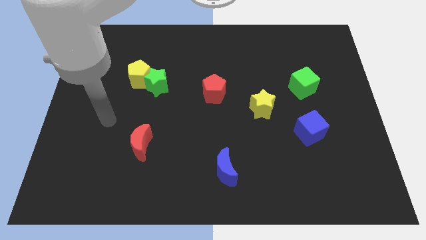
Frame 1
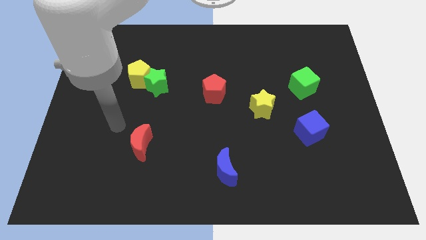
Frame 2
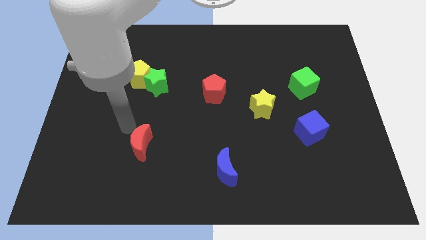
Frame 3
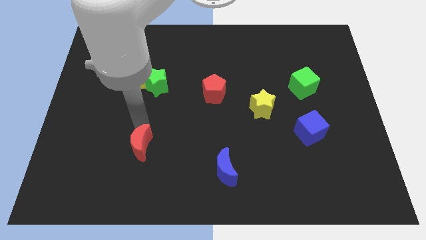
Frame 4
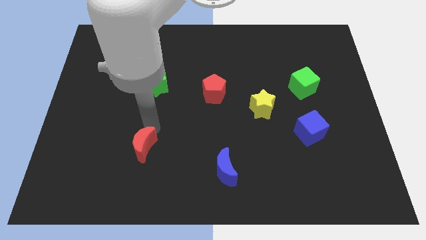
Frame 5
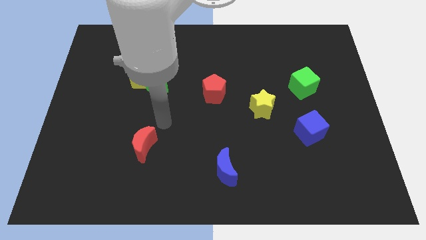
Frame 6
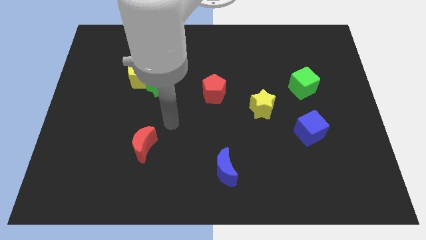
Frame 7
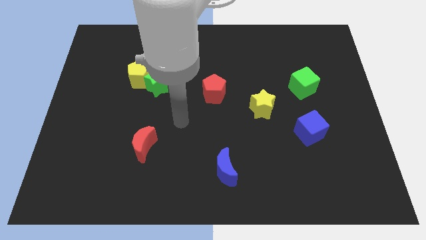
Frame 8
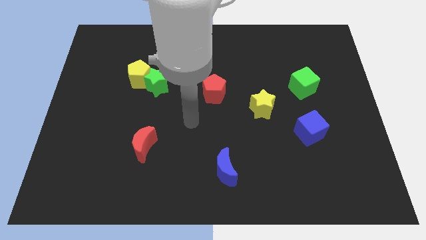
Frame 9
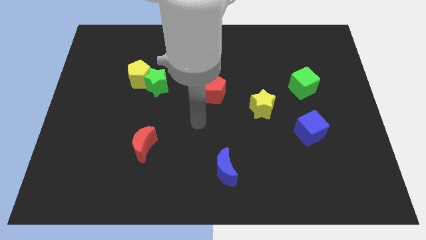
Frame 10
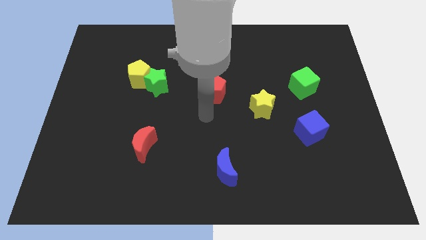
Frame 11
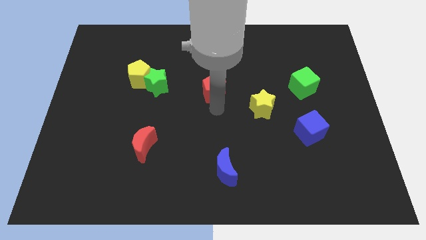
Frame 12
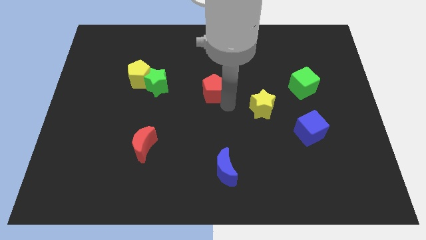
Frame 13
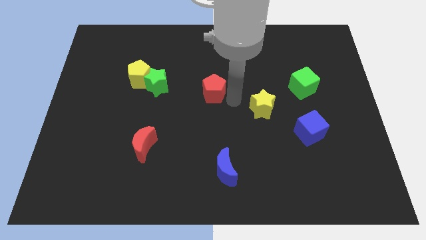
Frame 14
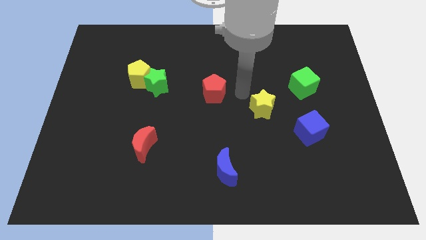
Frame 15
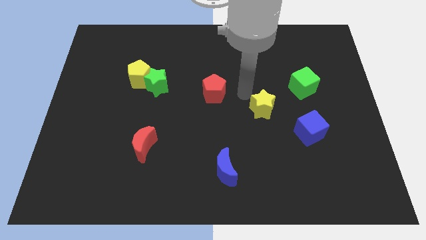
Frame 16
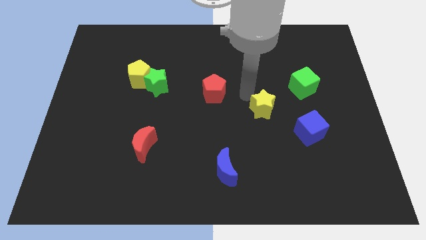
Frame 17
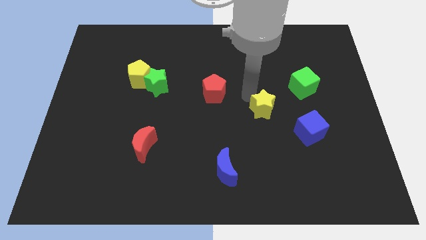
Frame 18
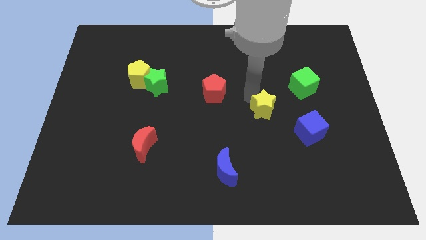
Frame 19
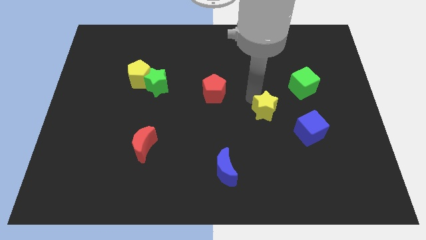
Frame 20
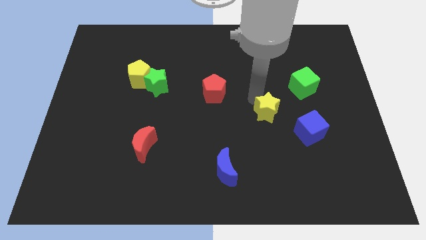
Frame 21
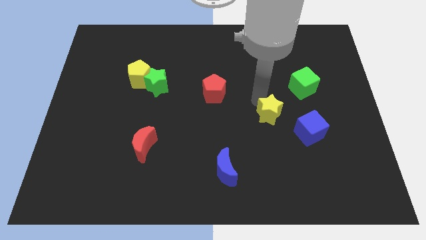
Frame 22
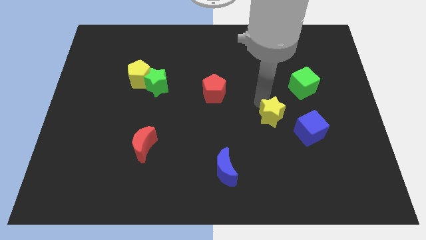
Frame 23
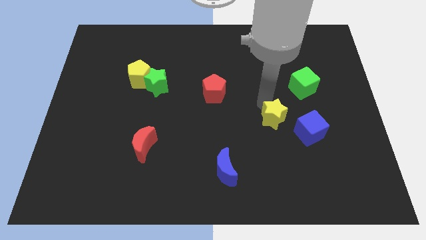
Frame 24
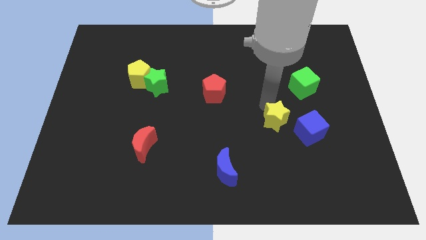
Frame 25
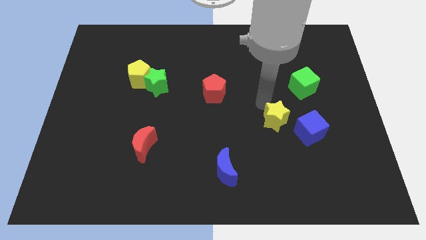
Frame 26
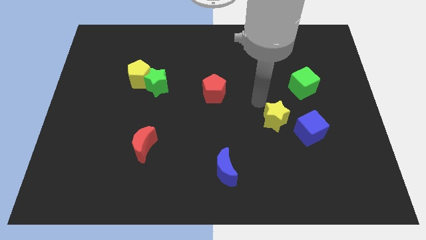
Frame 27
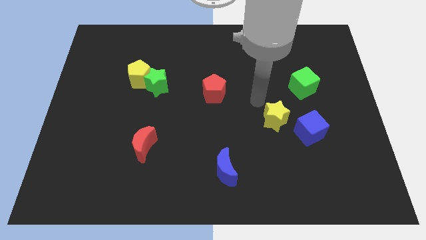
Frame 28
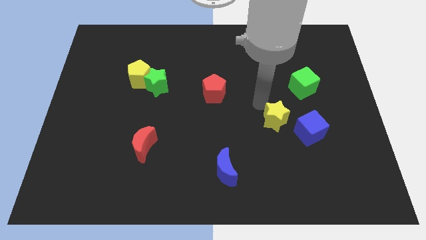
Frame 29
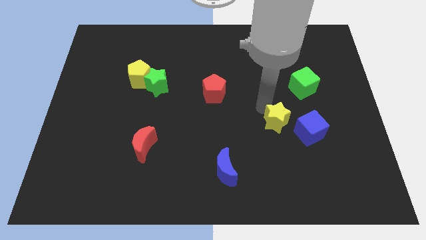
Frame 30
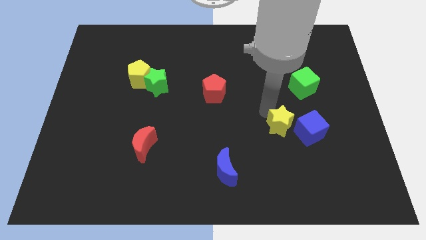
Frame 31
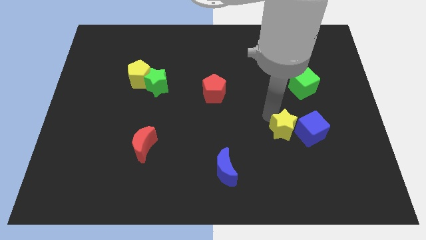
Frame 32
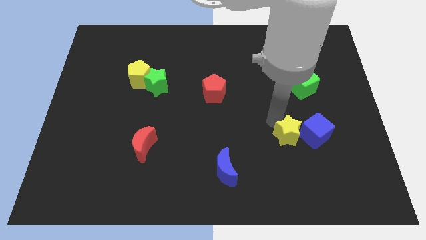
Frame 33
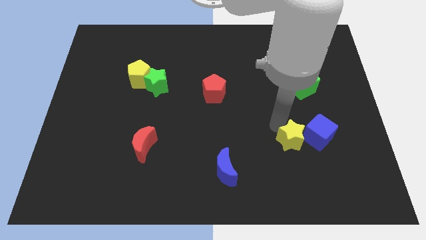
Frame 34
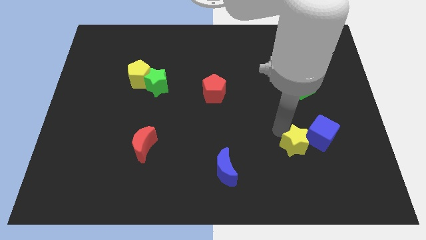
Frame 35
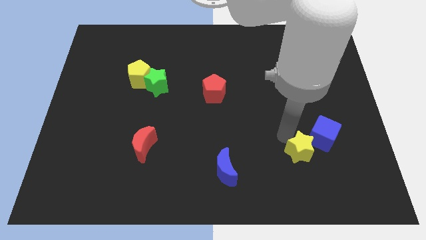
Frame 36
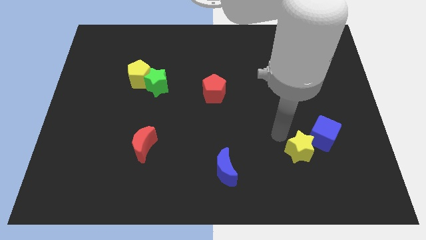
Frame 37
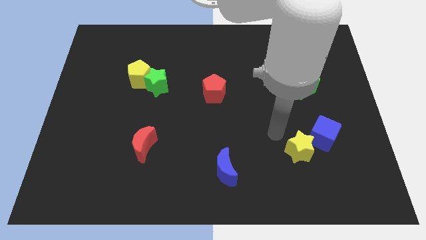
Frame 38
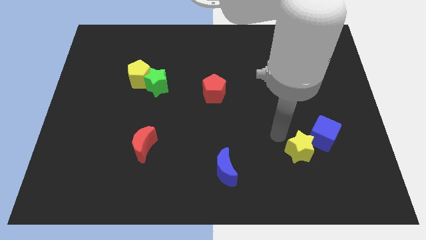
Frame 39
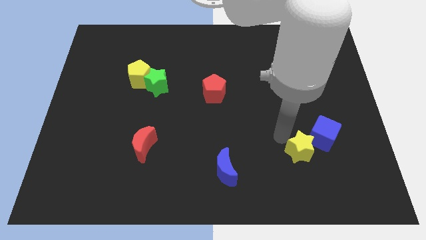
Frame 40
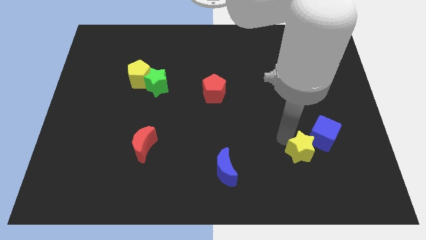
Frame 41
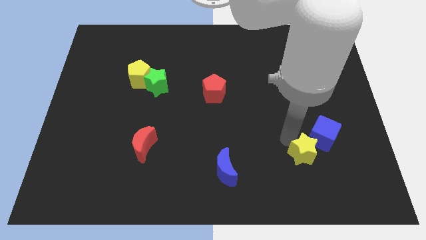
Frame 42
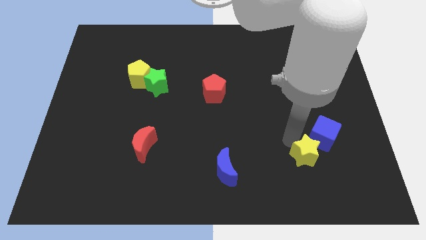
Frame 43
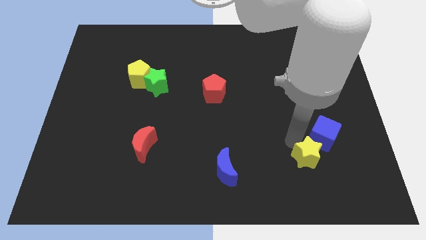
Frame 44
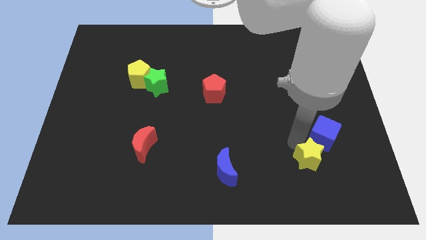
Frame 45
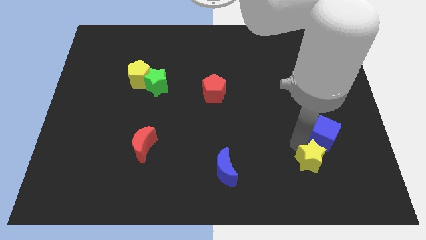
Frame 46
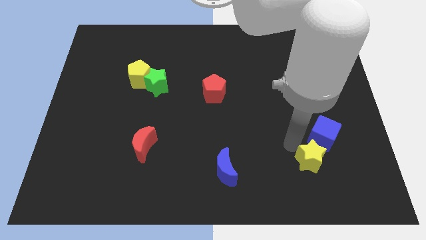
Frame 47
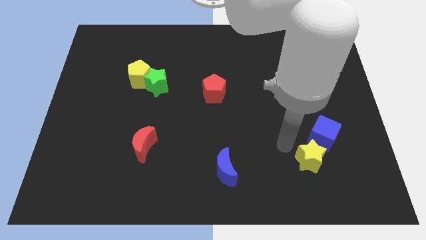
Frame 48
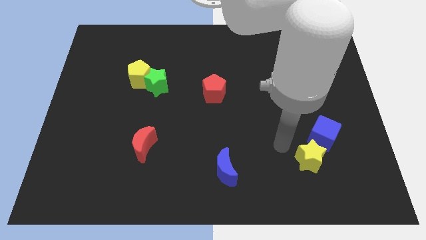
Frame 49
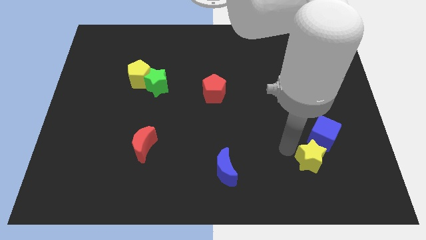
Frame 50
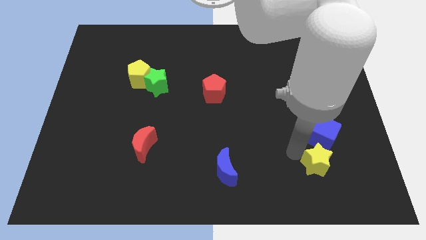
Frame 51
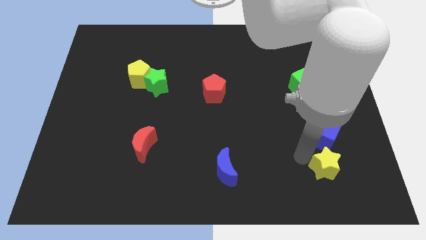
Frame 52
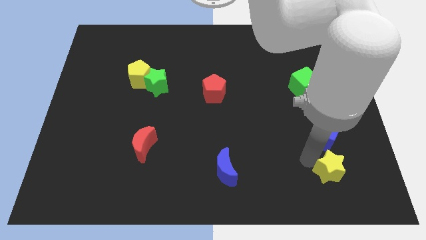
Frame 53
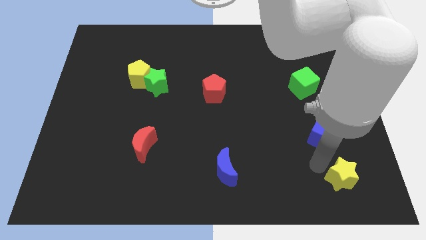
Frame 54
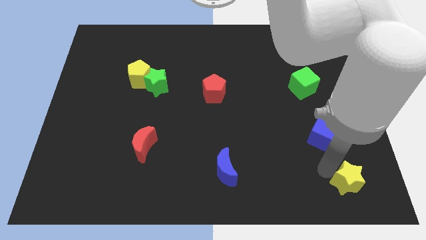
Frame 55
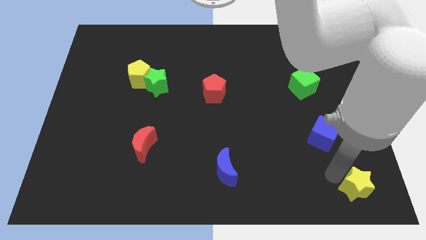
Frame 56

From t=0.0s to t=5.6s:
move the yellow star to the lower right corner

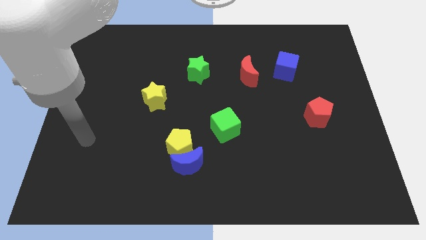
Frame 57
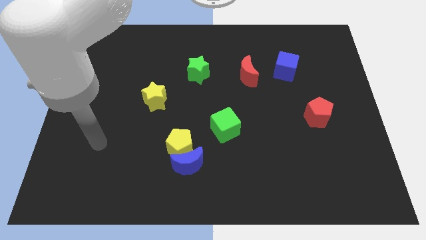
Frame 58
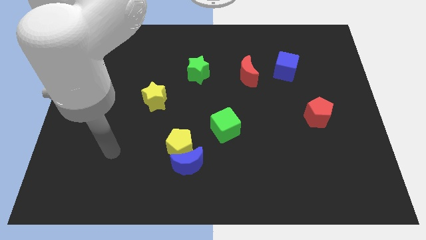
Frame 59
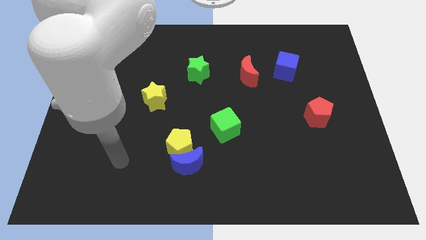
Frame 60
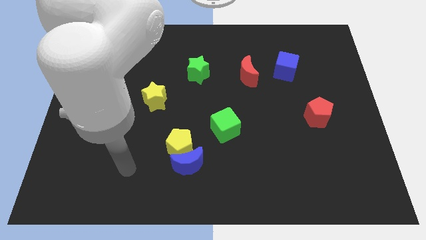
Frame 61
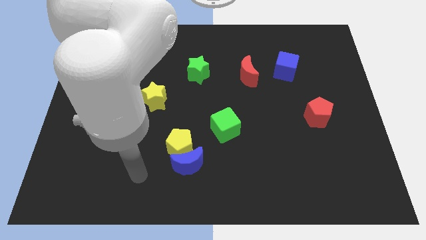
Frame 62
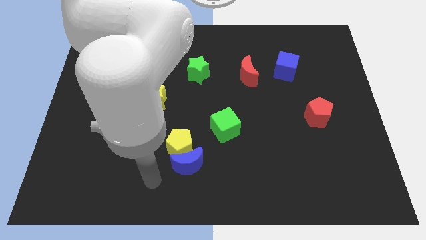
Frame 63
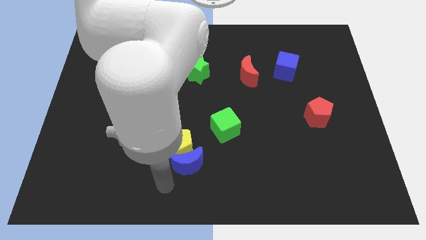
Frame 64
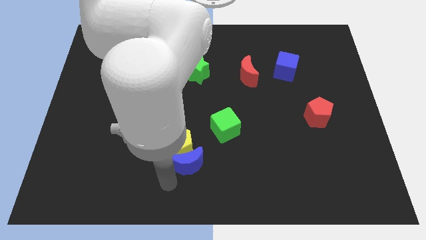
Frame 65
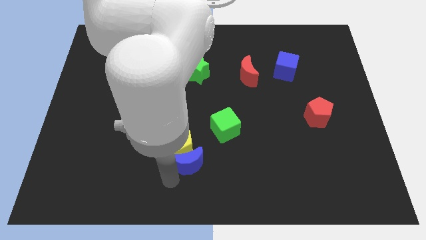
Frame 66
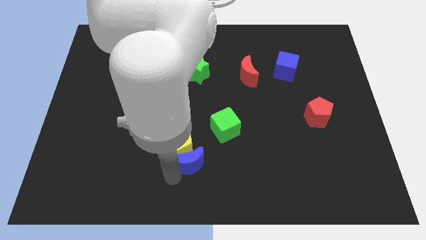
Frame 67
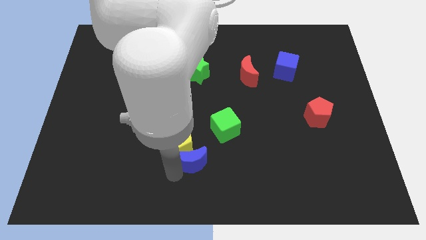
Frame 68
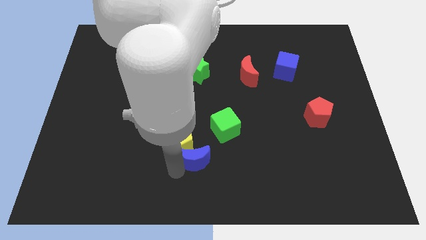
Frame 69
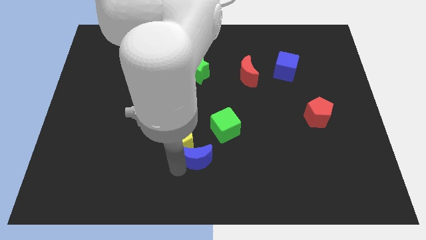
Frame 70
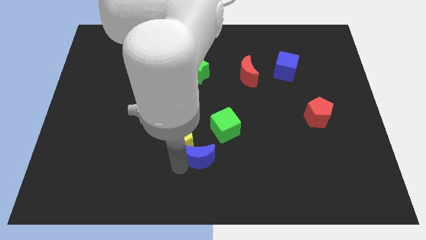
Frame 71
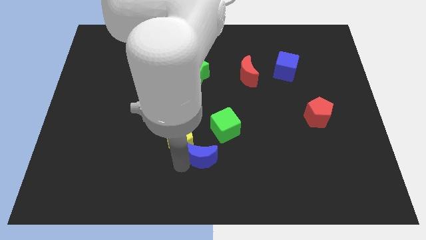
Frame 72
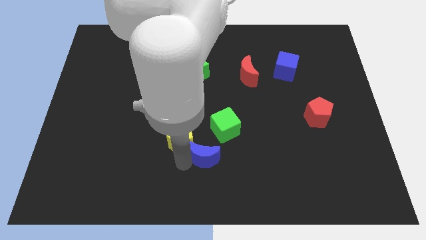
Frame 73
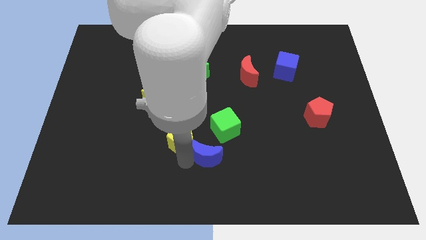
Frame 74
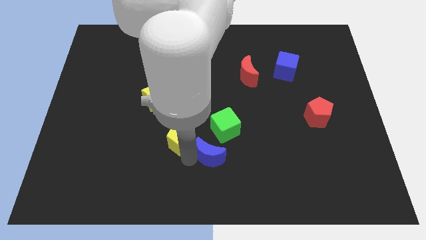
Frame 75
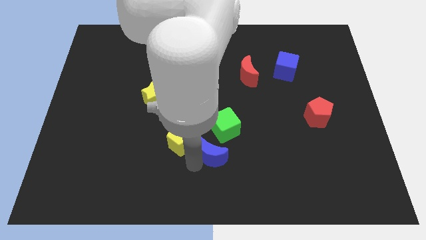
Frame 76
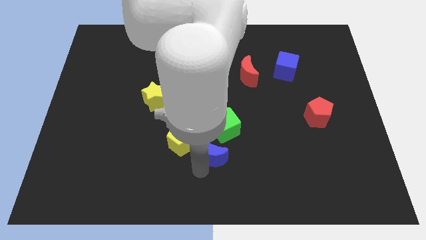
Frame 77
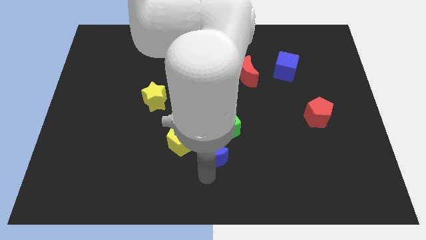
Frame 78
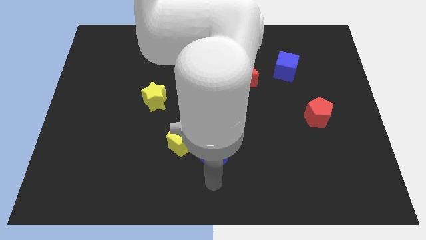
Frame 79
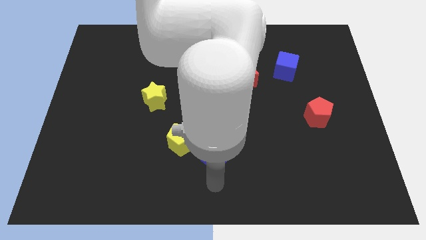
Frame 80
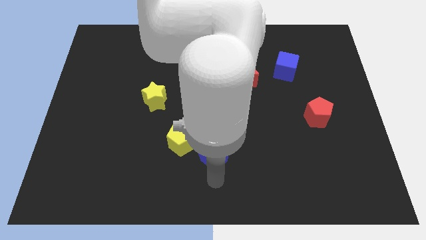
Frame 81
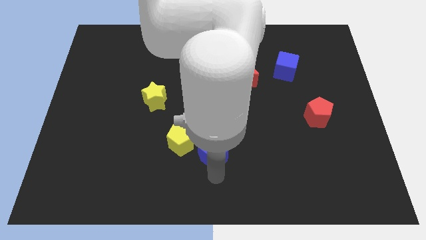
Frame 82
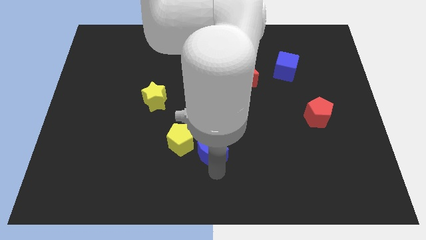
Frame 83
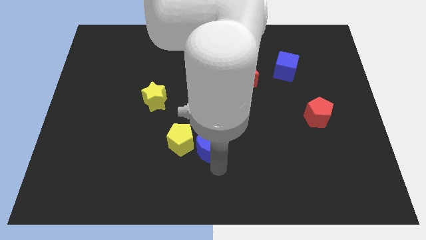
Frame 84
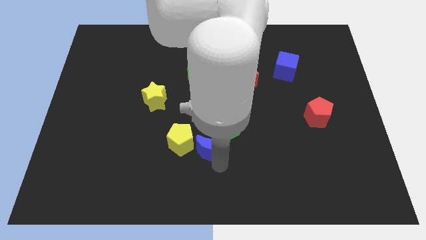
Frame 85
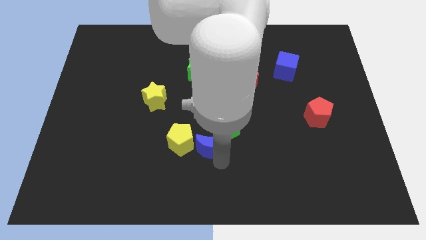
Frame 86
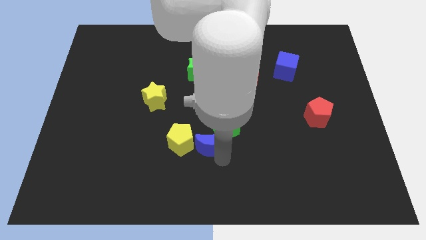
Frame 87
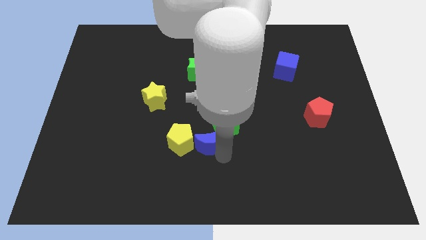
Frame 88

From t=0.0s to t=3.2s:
slide the blue moon to the middle of the board
